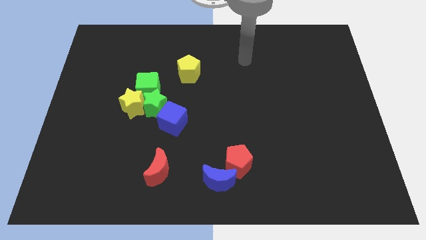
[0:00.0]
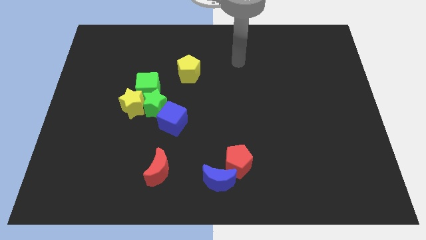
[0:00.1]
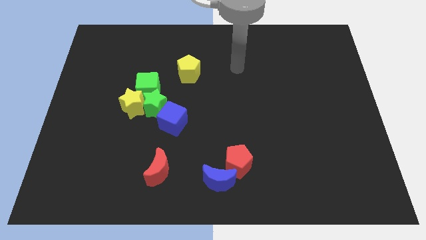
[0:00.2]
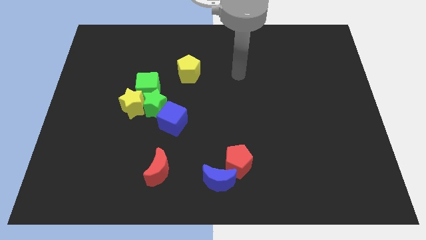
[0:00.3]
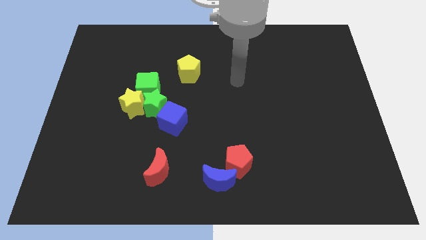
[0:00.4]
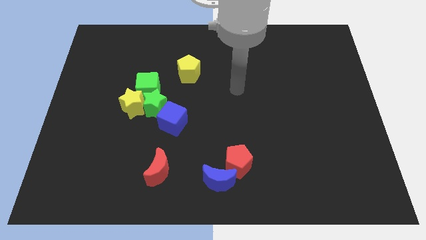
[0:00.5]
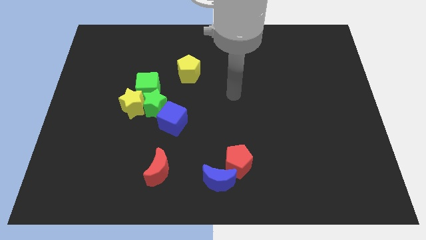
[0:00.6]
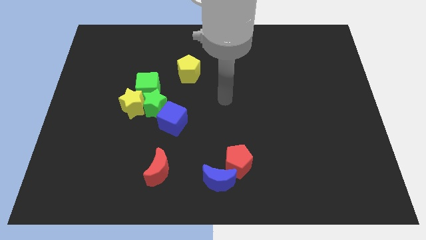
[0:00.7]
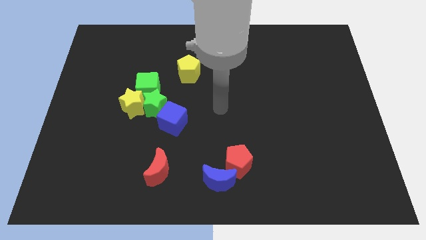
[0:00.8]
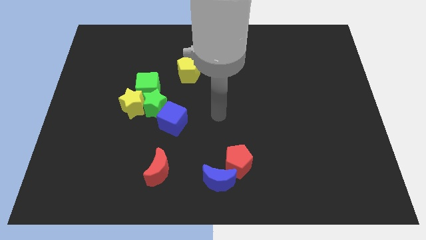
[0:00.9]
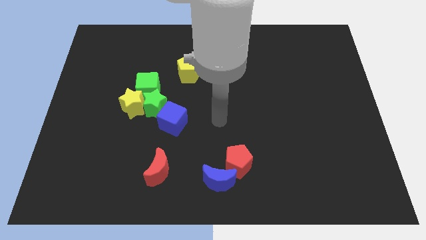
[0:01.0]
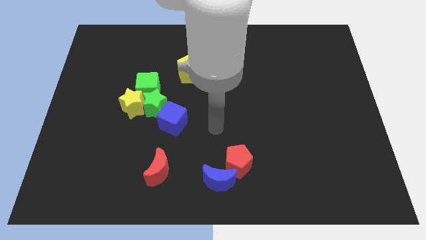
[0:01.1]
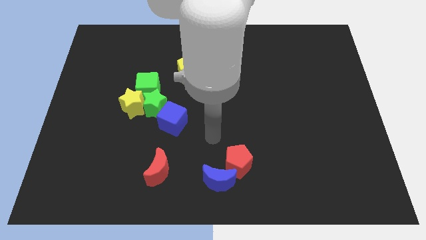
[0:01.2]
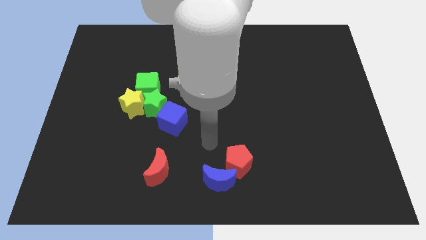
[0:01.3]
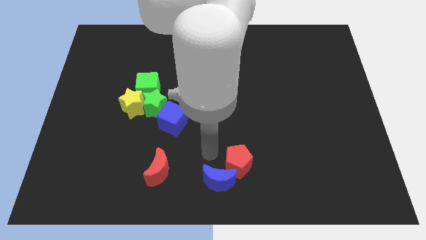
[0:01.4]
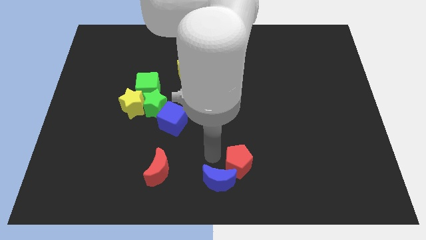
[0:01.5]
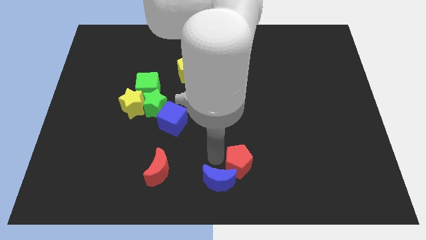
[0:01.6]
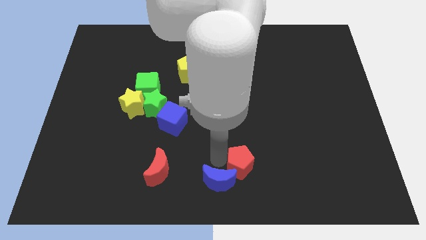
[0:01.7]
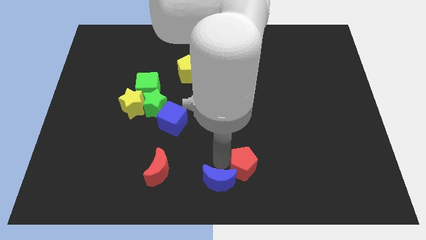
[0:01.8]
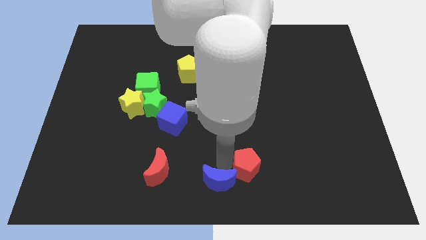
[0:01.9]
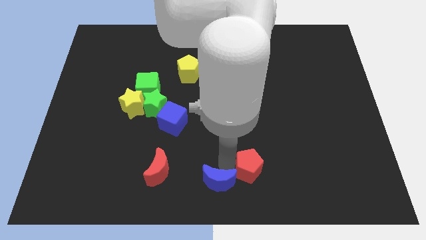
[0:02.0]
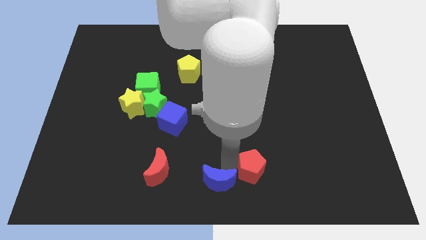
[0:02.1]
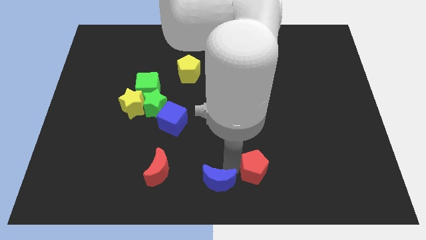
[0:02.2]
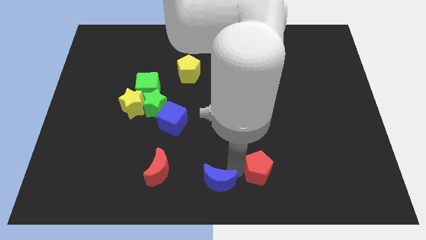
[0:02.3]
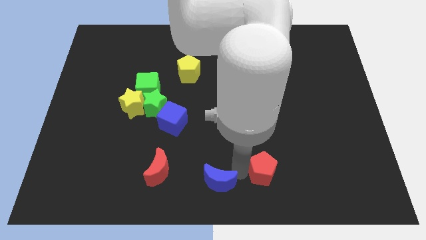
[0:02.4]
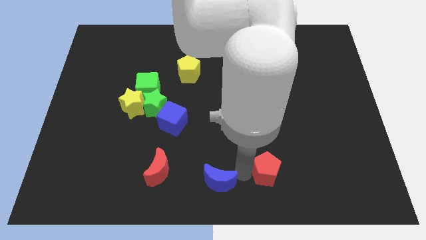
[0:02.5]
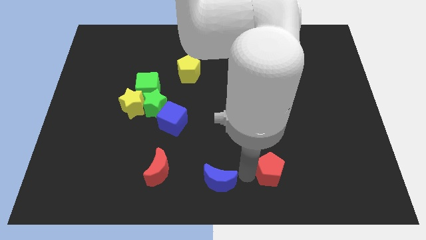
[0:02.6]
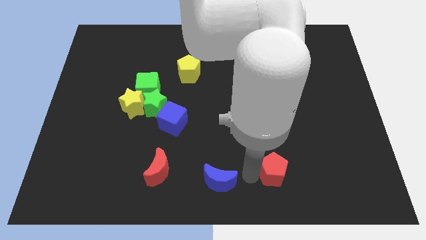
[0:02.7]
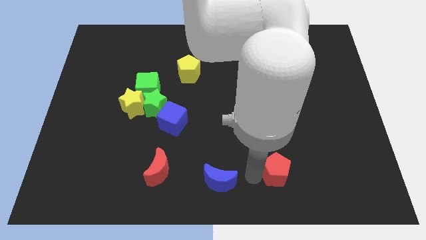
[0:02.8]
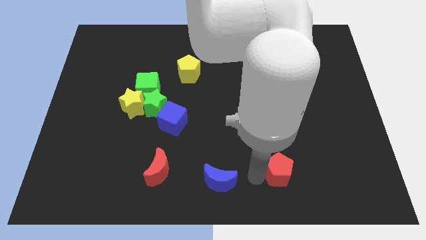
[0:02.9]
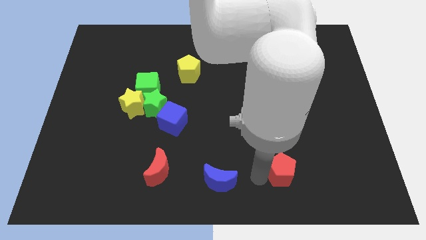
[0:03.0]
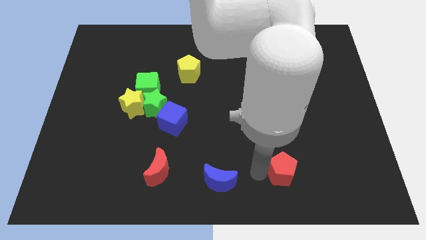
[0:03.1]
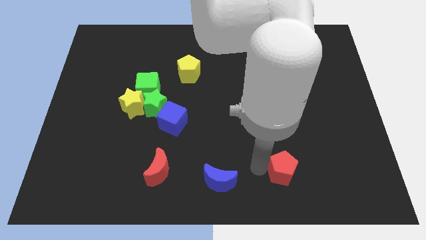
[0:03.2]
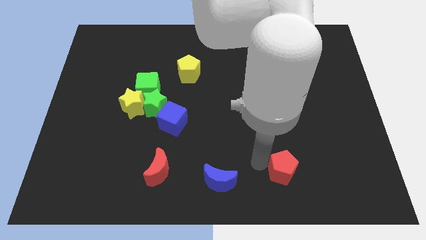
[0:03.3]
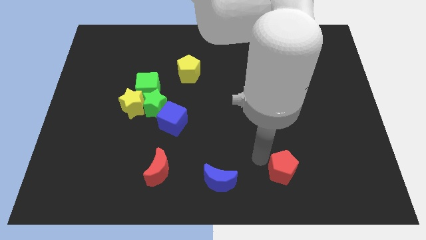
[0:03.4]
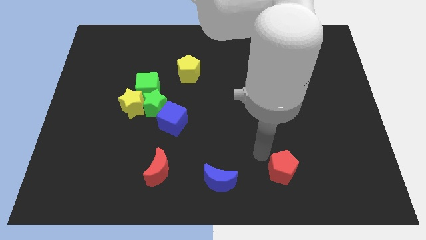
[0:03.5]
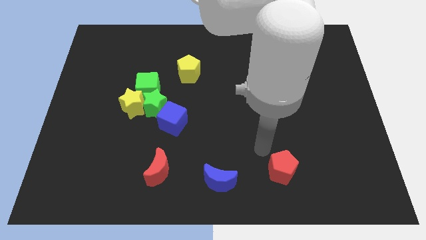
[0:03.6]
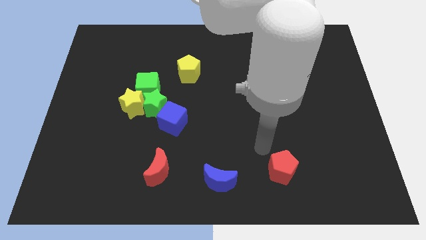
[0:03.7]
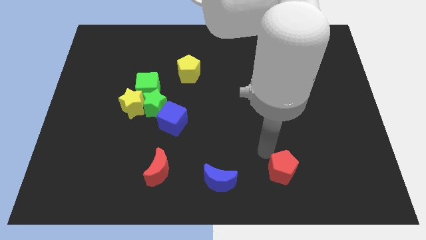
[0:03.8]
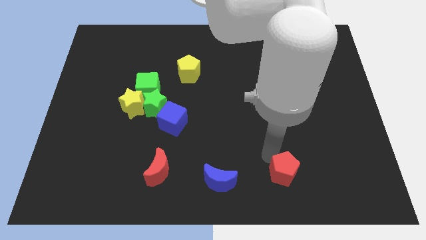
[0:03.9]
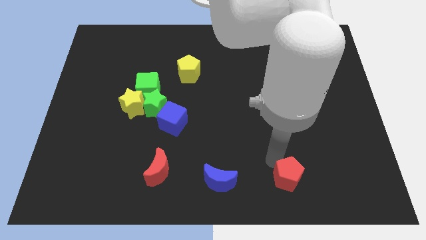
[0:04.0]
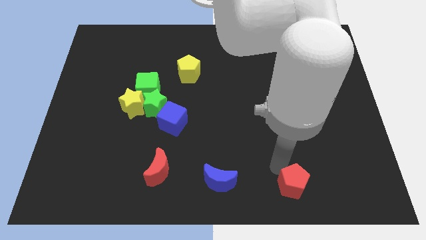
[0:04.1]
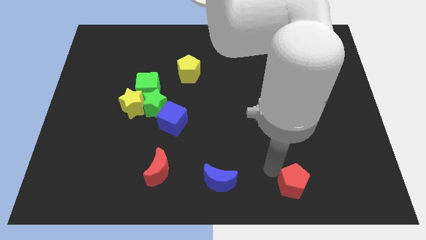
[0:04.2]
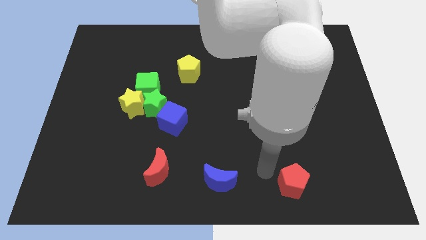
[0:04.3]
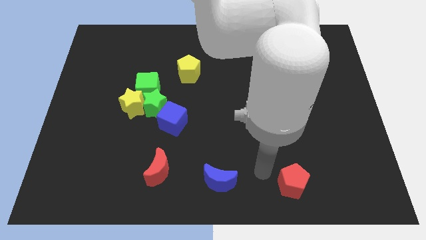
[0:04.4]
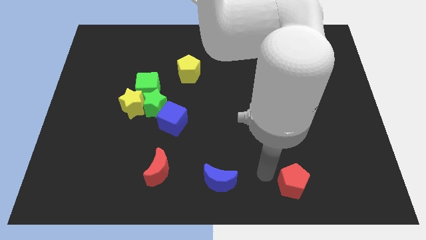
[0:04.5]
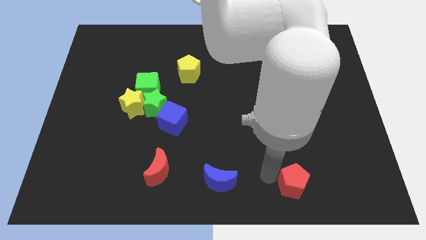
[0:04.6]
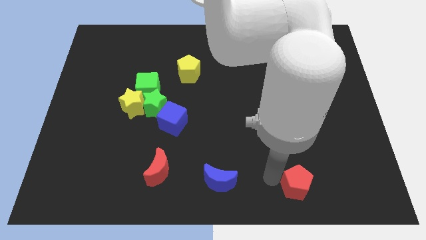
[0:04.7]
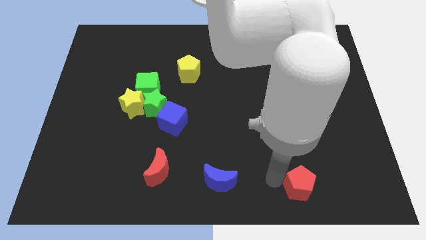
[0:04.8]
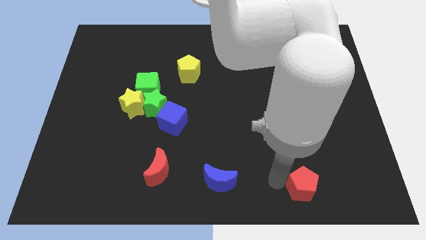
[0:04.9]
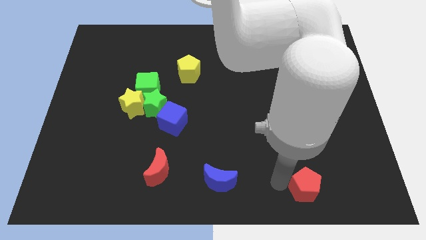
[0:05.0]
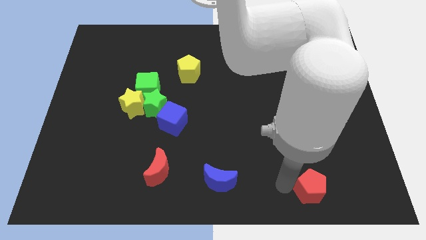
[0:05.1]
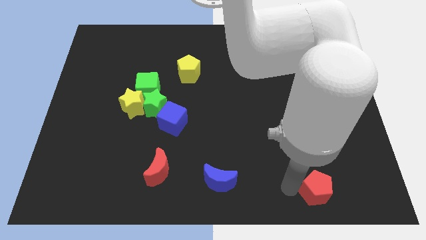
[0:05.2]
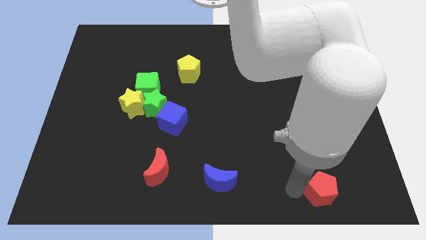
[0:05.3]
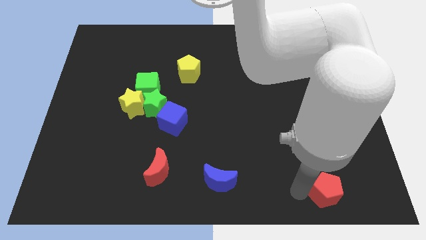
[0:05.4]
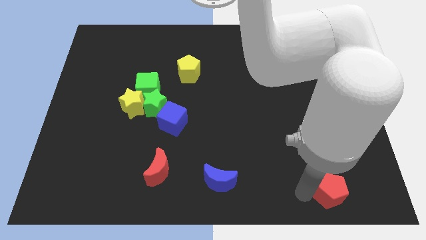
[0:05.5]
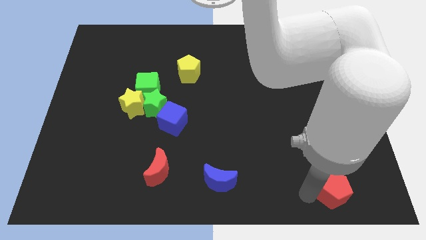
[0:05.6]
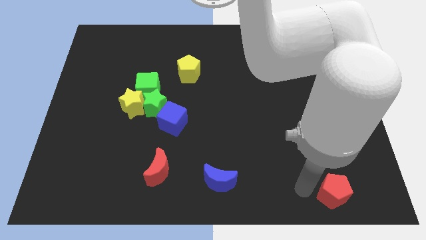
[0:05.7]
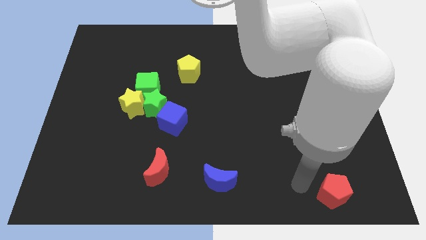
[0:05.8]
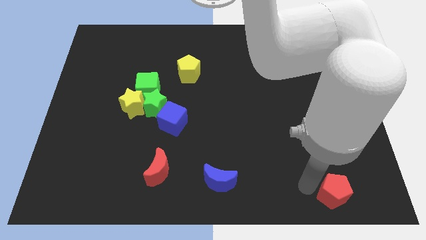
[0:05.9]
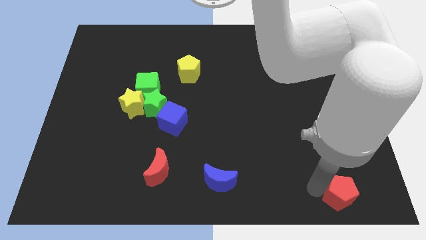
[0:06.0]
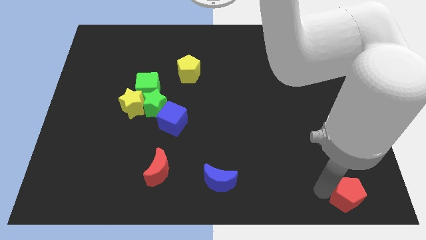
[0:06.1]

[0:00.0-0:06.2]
slide the red pentagon to the lower right corner
